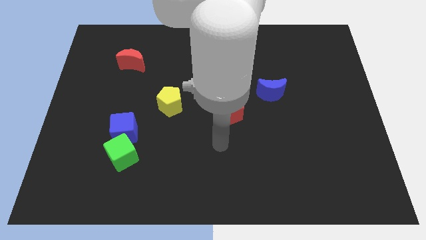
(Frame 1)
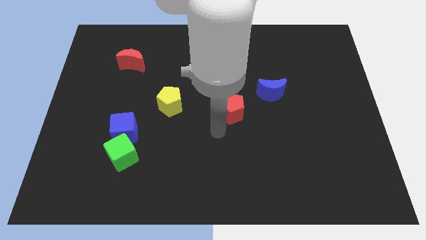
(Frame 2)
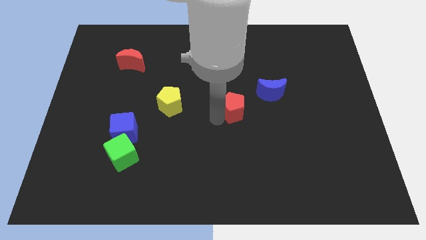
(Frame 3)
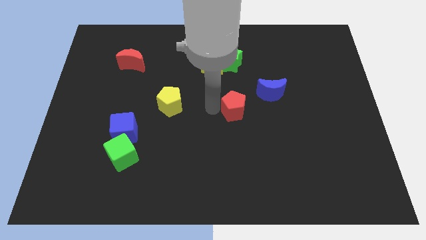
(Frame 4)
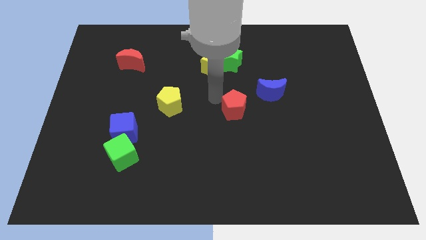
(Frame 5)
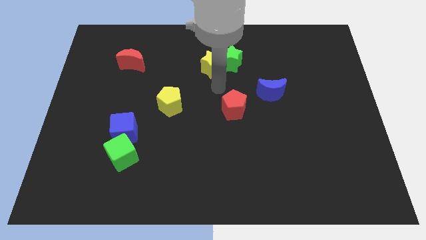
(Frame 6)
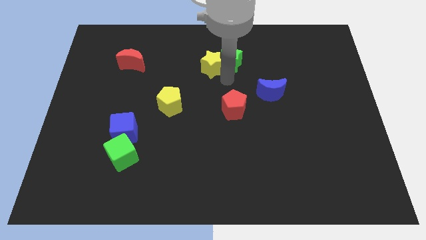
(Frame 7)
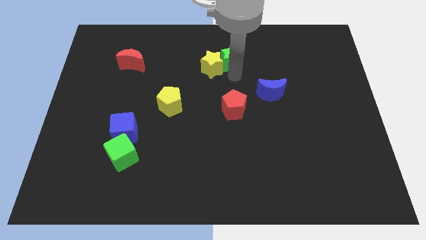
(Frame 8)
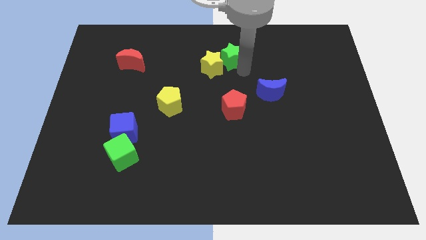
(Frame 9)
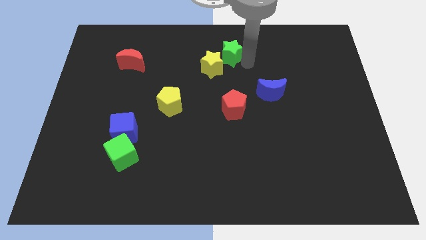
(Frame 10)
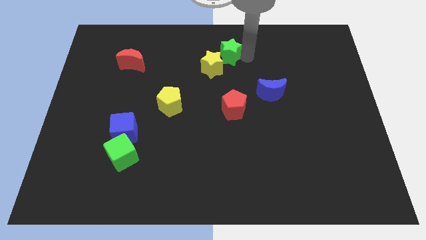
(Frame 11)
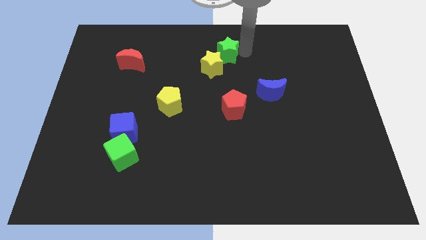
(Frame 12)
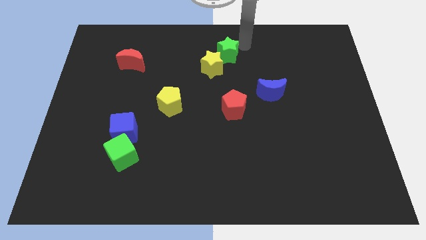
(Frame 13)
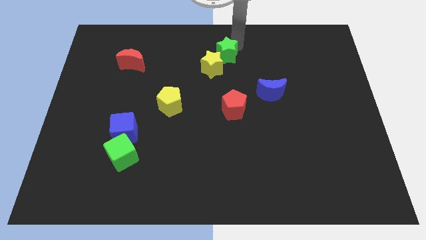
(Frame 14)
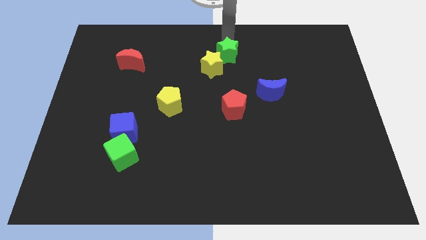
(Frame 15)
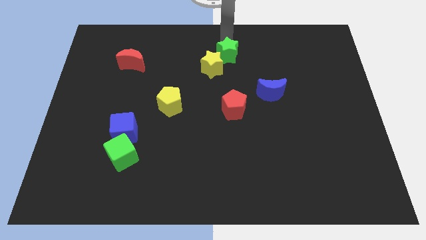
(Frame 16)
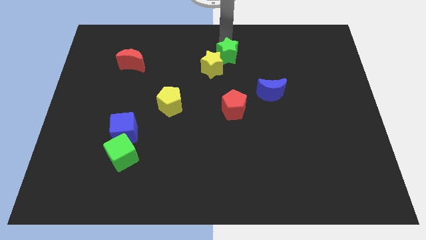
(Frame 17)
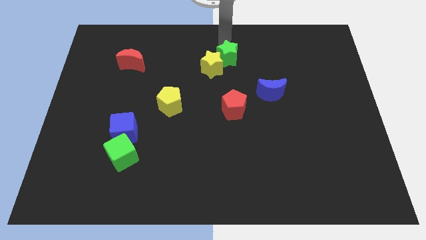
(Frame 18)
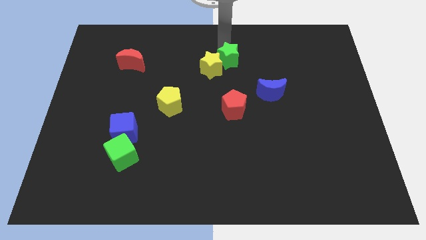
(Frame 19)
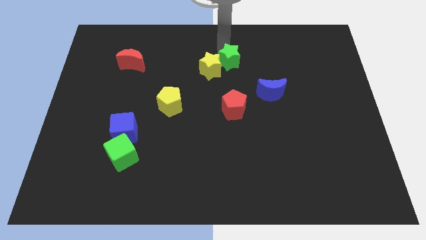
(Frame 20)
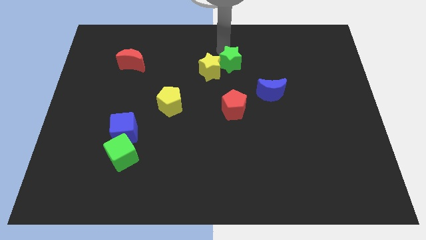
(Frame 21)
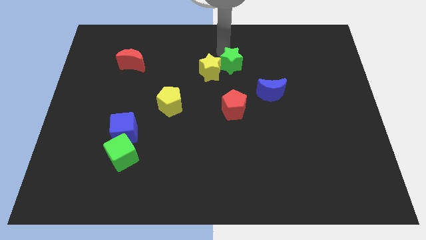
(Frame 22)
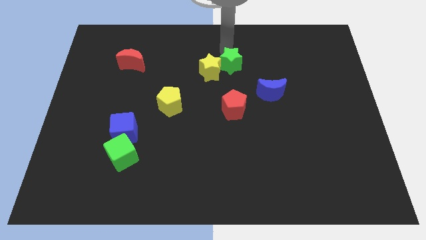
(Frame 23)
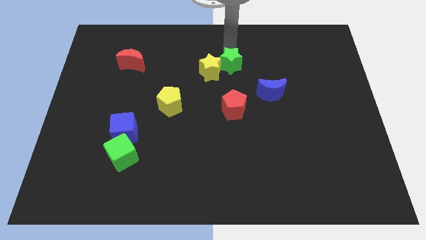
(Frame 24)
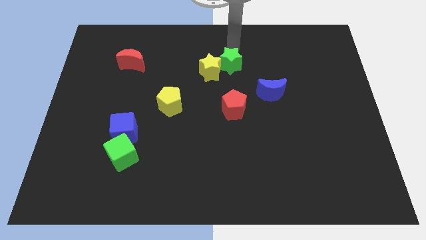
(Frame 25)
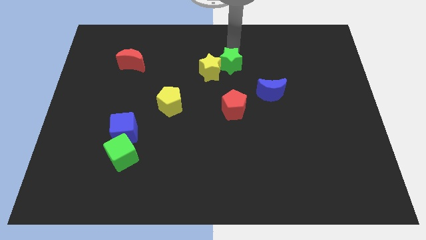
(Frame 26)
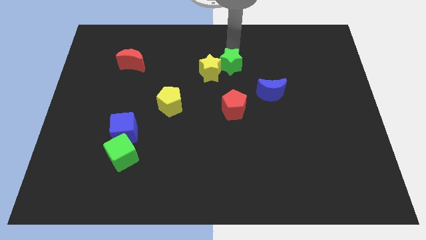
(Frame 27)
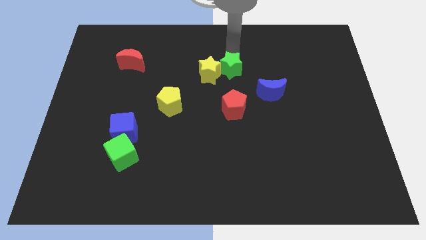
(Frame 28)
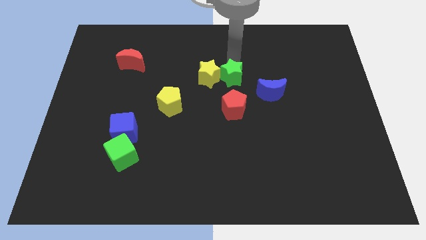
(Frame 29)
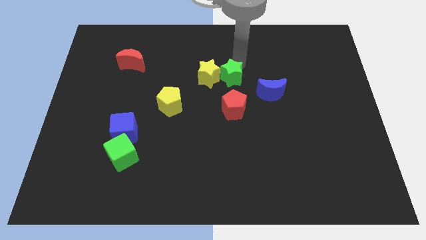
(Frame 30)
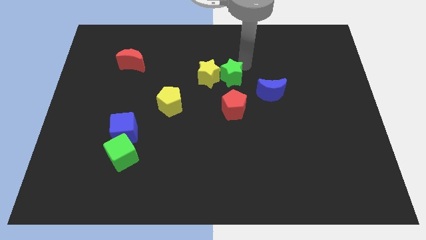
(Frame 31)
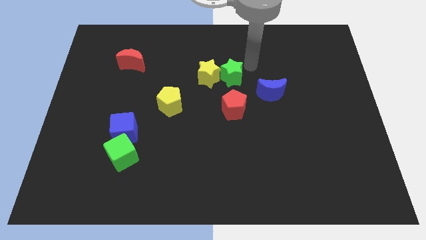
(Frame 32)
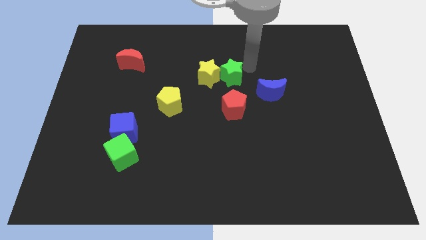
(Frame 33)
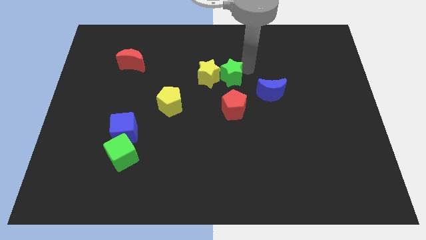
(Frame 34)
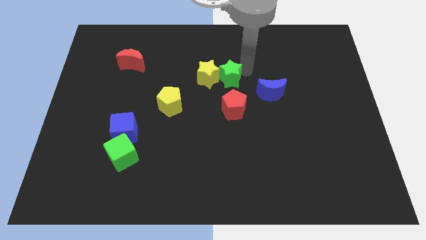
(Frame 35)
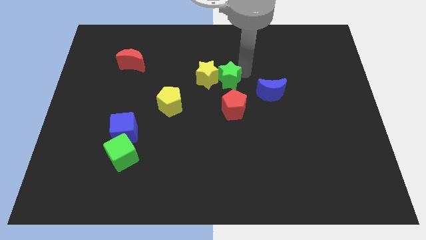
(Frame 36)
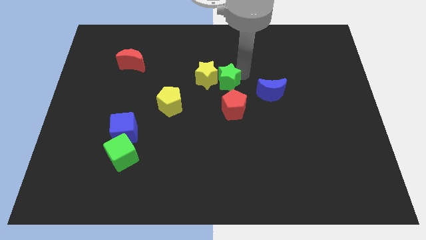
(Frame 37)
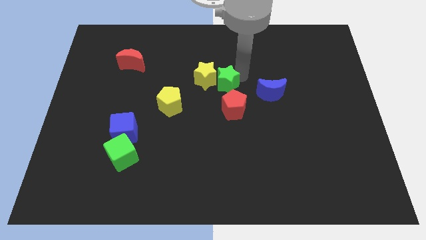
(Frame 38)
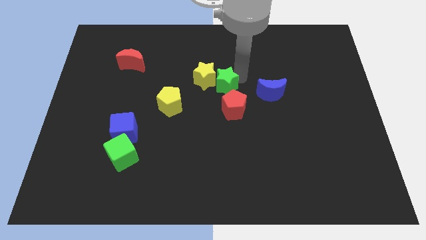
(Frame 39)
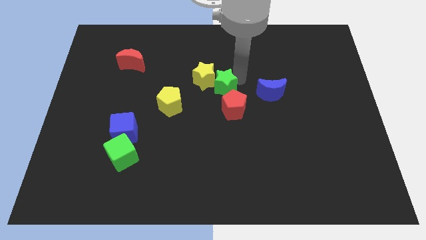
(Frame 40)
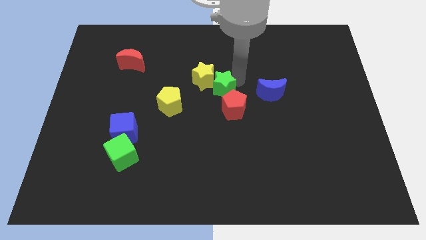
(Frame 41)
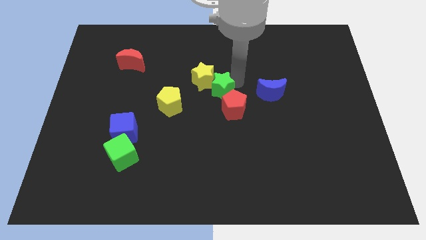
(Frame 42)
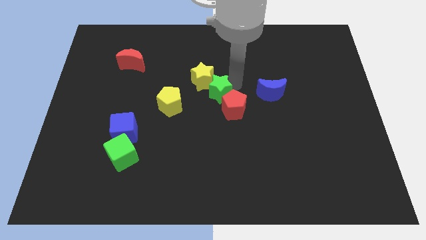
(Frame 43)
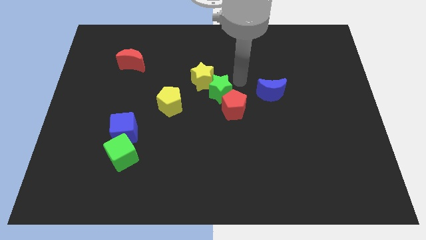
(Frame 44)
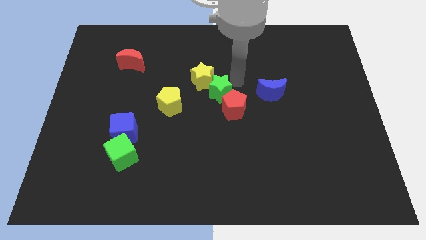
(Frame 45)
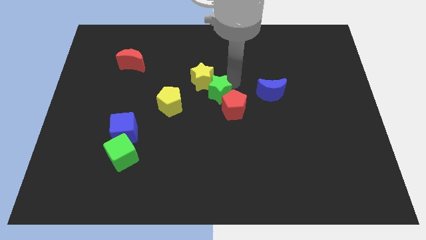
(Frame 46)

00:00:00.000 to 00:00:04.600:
move the green star to the left side of the red pentagon

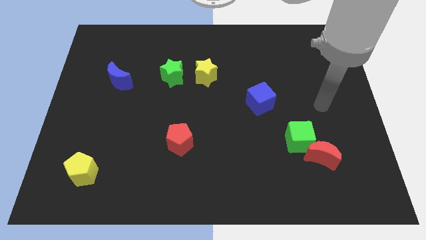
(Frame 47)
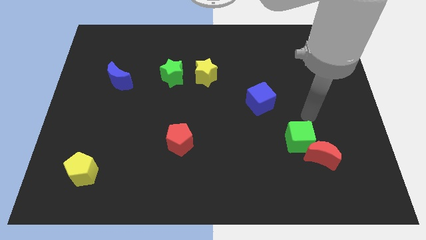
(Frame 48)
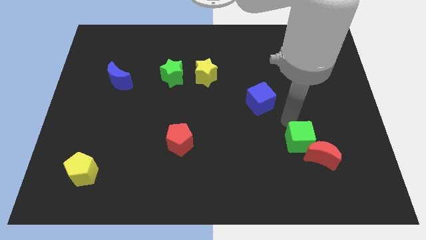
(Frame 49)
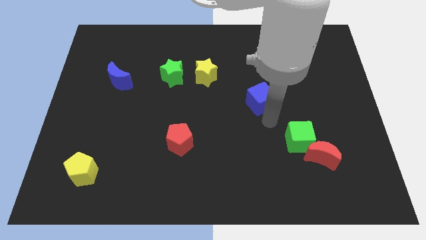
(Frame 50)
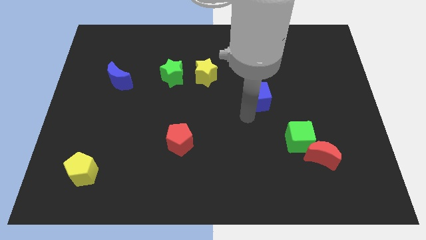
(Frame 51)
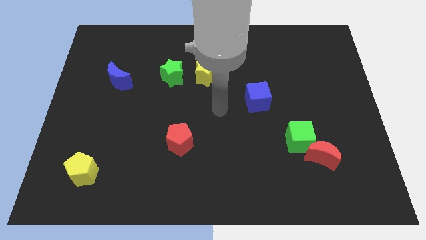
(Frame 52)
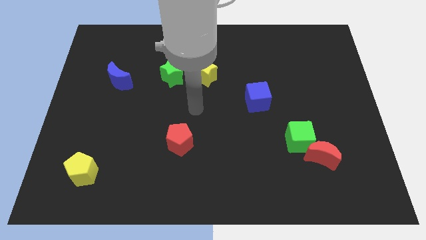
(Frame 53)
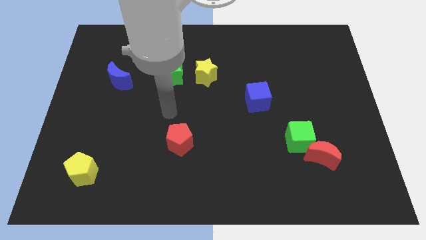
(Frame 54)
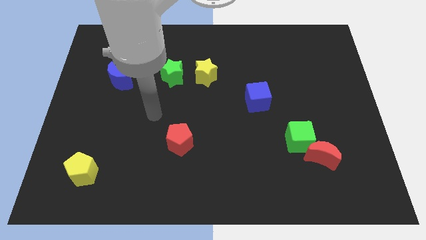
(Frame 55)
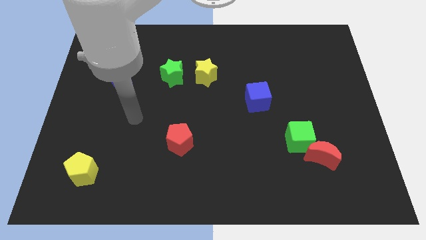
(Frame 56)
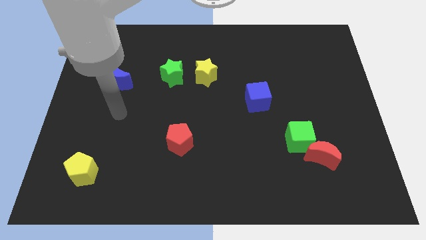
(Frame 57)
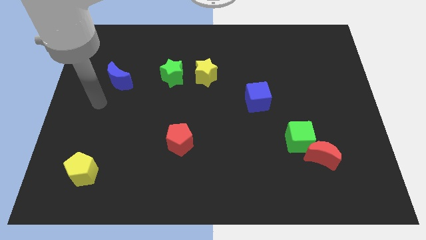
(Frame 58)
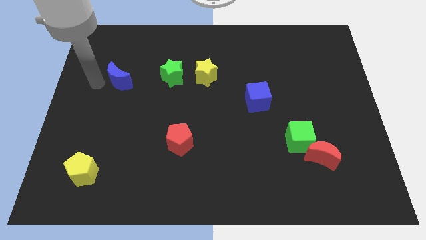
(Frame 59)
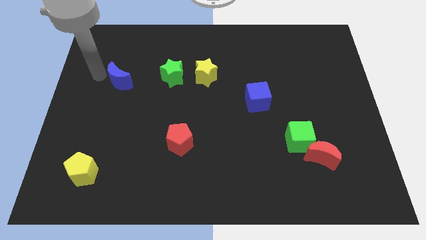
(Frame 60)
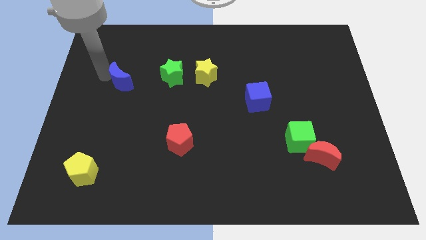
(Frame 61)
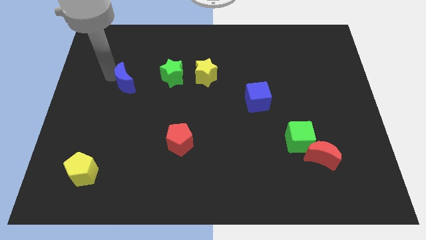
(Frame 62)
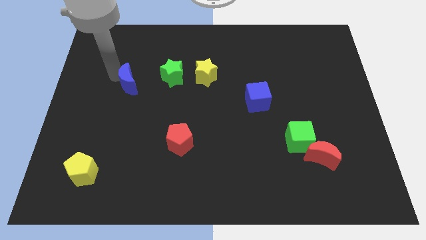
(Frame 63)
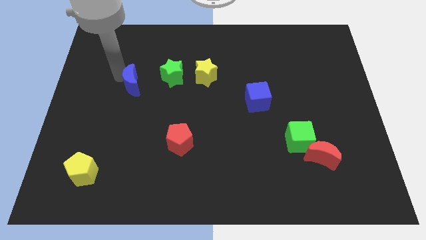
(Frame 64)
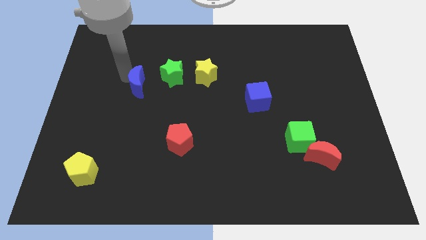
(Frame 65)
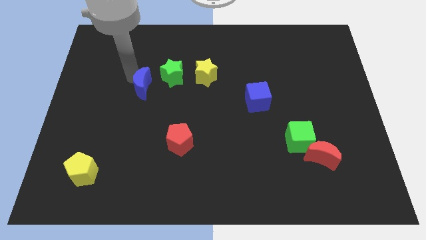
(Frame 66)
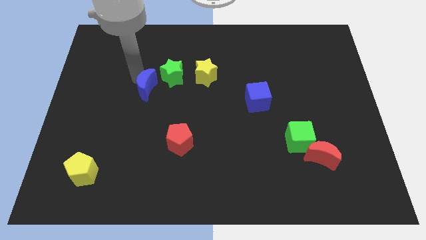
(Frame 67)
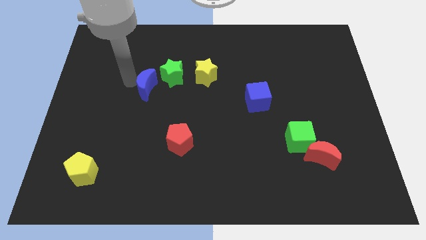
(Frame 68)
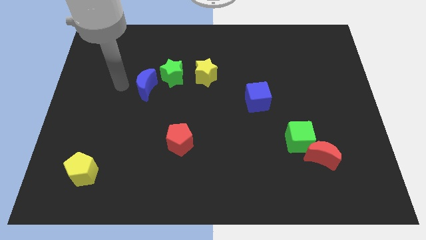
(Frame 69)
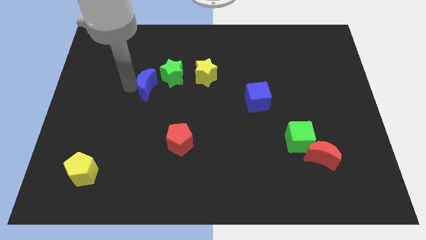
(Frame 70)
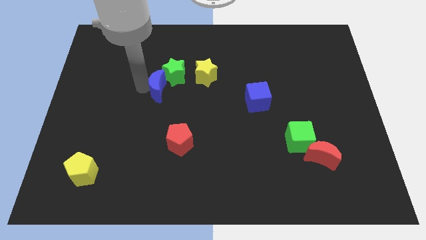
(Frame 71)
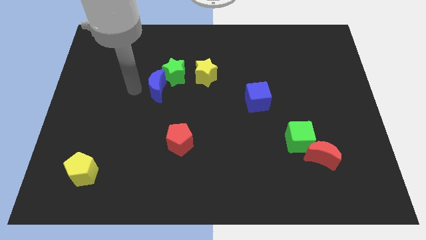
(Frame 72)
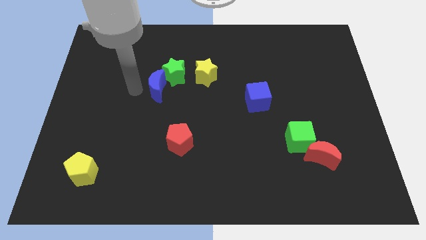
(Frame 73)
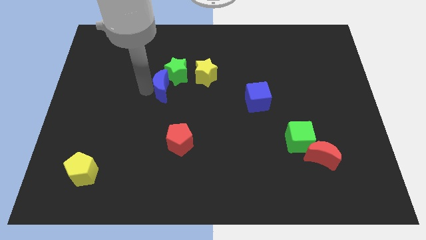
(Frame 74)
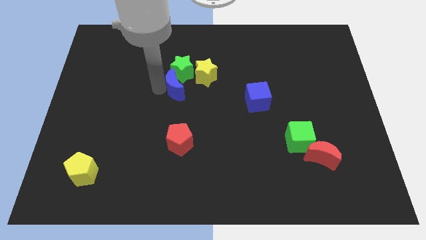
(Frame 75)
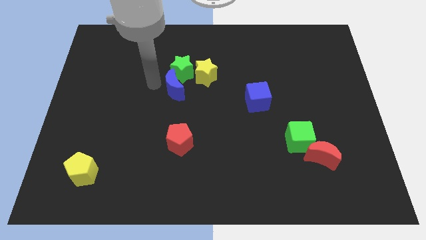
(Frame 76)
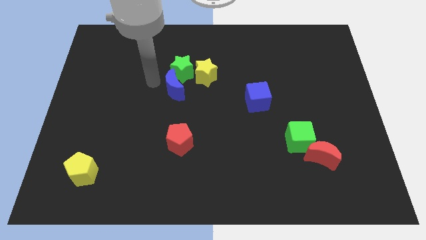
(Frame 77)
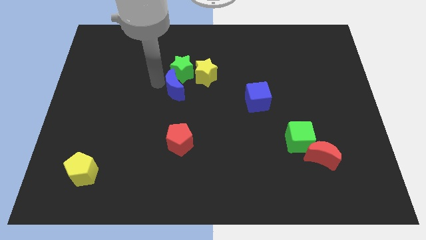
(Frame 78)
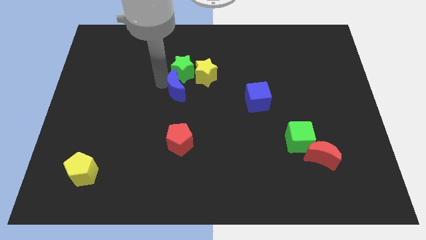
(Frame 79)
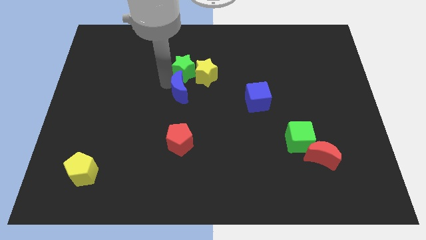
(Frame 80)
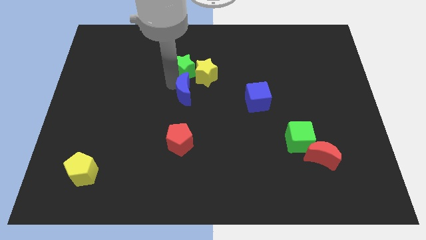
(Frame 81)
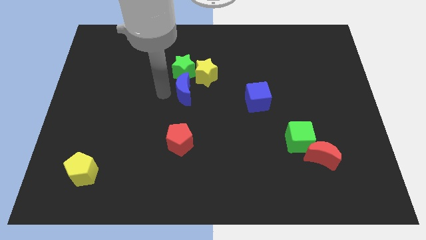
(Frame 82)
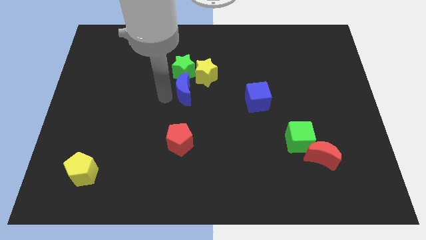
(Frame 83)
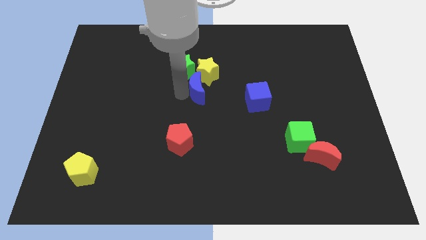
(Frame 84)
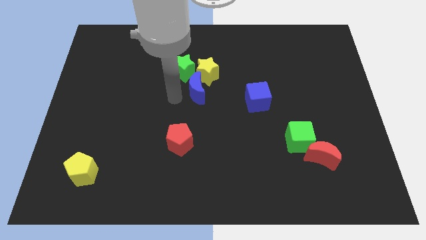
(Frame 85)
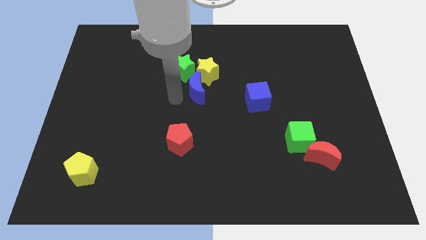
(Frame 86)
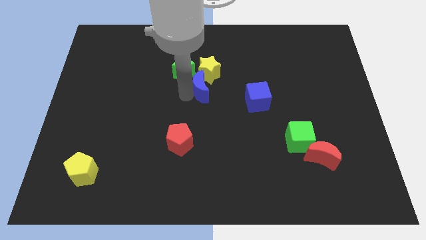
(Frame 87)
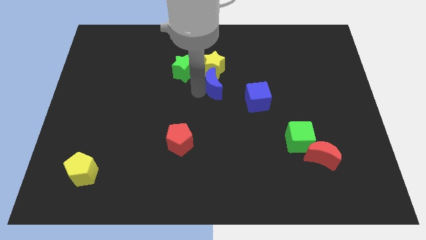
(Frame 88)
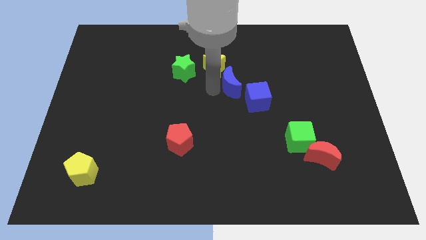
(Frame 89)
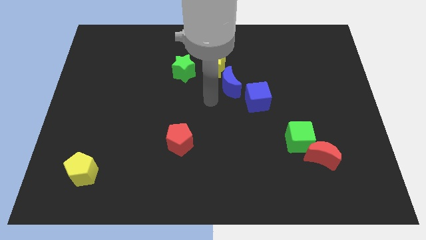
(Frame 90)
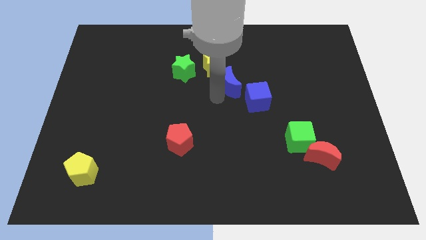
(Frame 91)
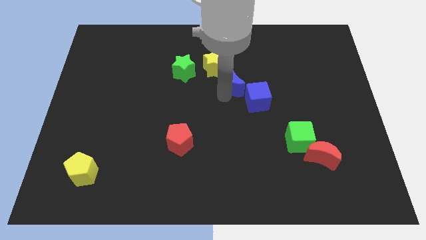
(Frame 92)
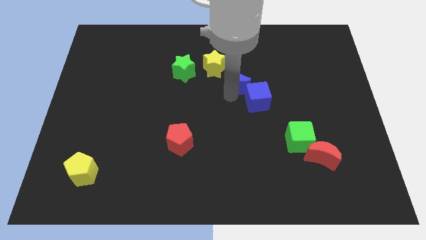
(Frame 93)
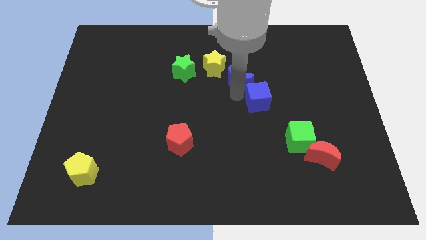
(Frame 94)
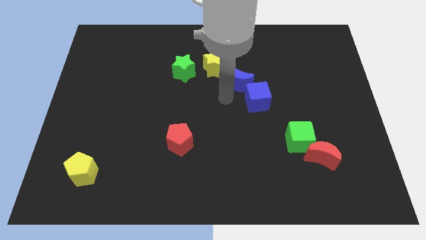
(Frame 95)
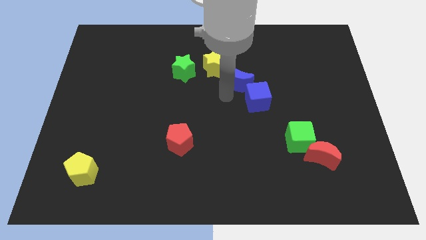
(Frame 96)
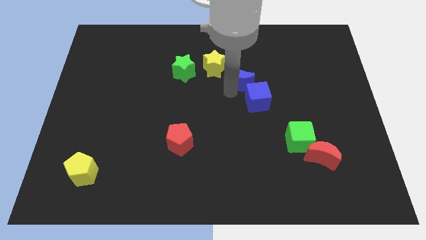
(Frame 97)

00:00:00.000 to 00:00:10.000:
move the blue moon to the right side of the yellow star
